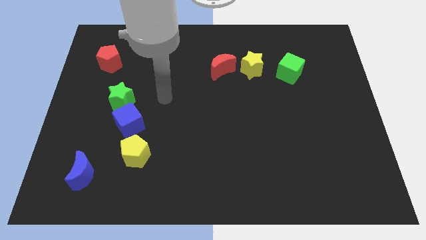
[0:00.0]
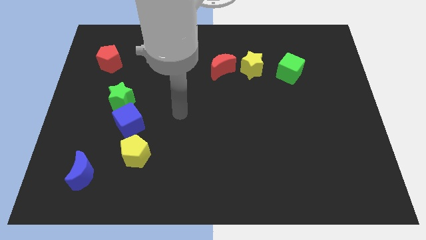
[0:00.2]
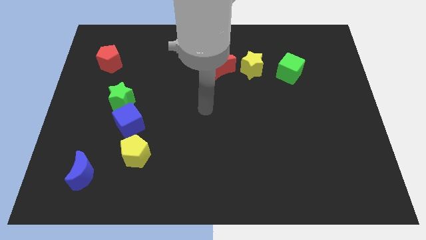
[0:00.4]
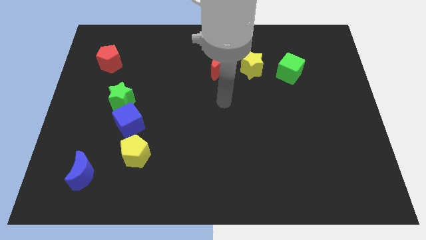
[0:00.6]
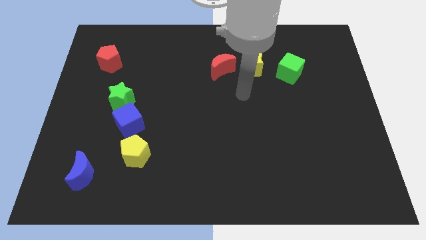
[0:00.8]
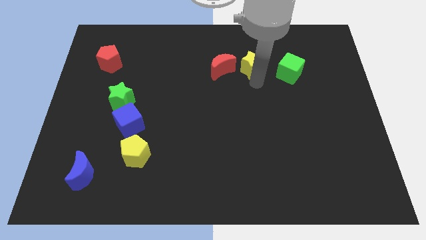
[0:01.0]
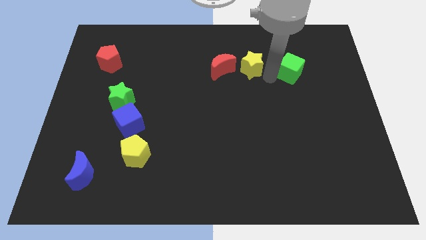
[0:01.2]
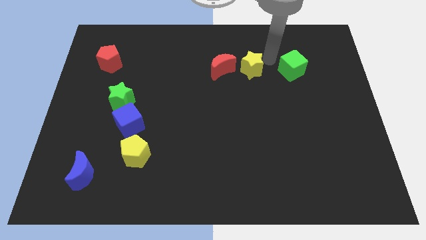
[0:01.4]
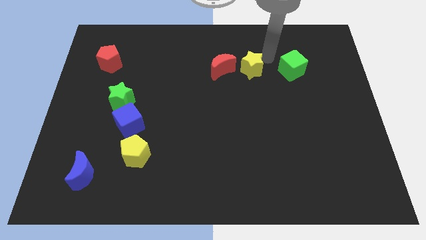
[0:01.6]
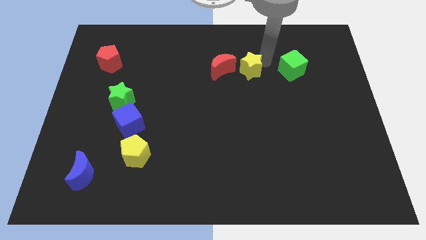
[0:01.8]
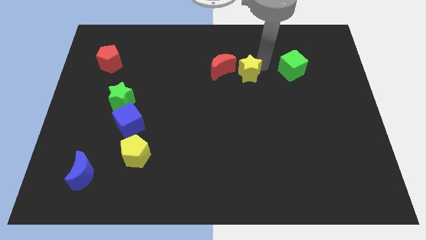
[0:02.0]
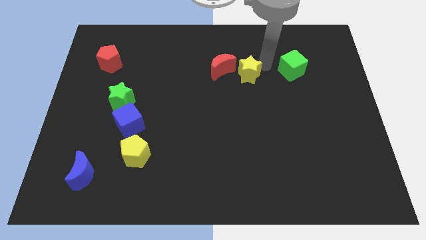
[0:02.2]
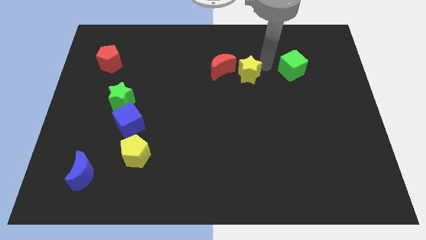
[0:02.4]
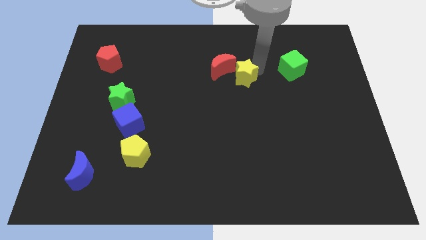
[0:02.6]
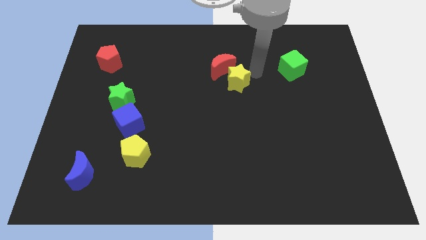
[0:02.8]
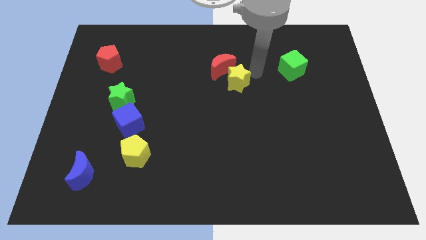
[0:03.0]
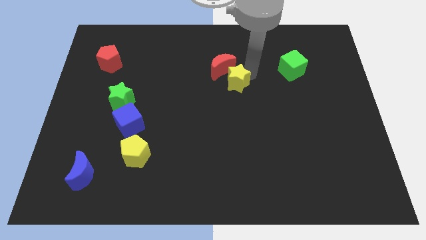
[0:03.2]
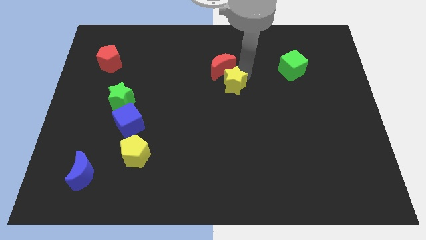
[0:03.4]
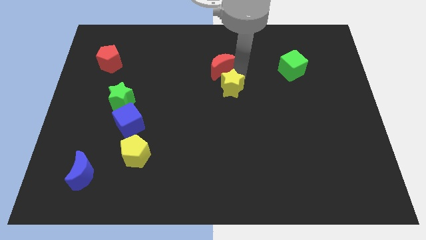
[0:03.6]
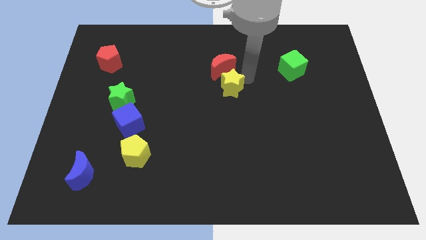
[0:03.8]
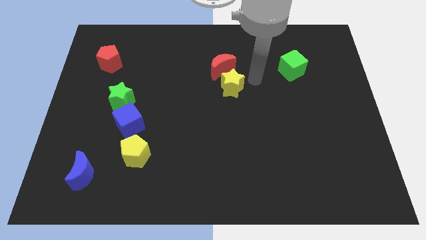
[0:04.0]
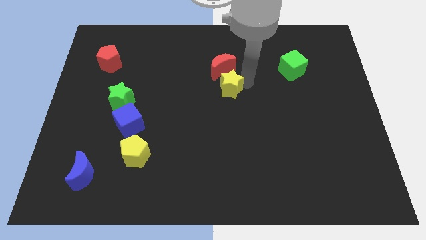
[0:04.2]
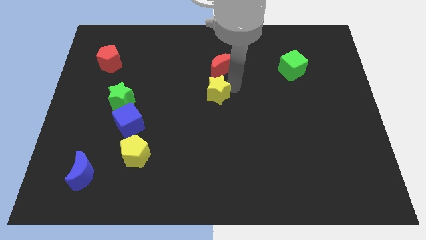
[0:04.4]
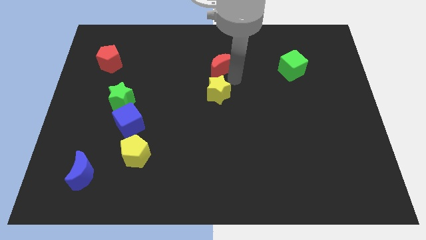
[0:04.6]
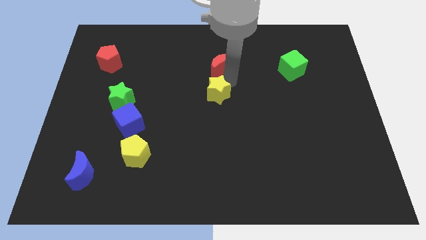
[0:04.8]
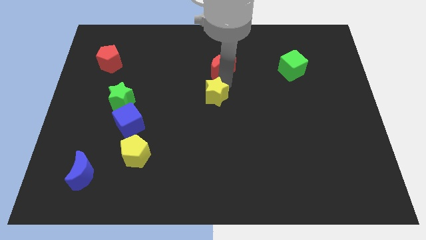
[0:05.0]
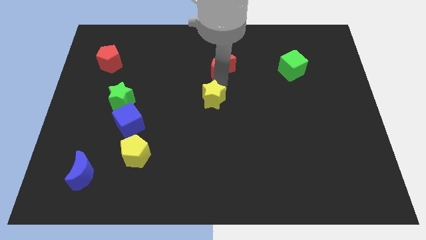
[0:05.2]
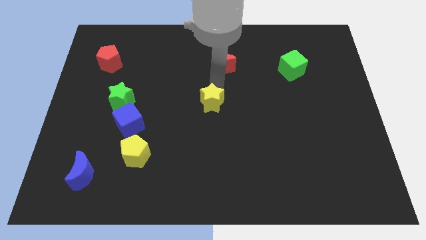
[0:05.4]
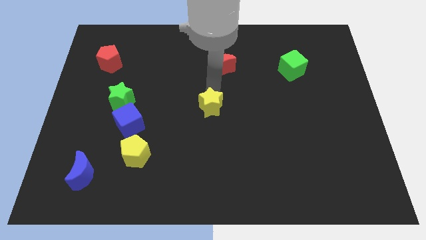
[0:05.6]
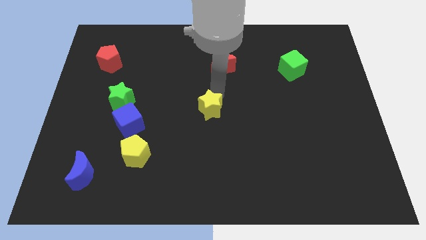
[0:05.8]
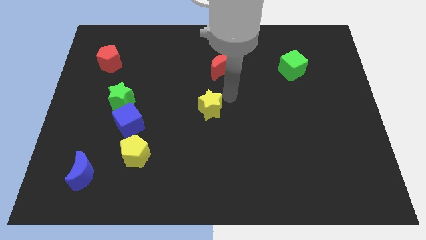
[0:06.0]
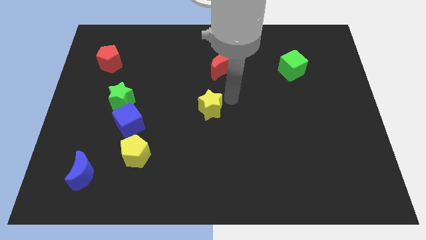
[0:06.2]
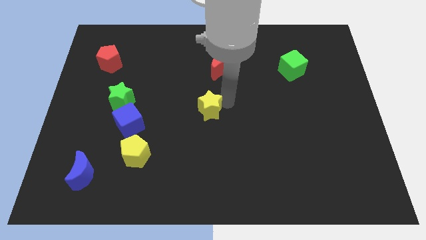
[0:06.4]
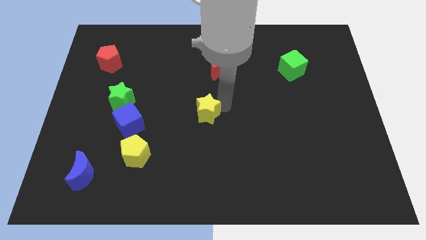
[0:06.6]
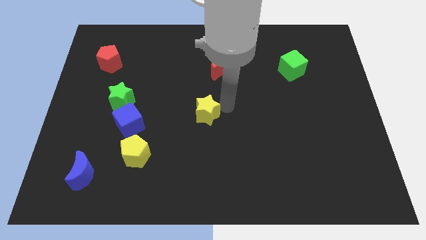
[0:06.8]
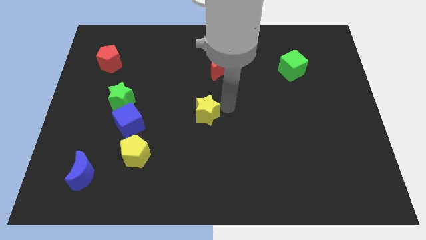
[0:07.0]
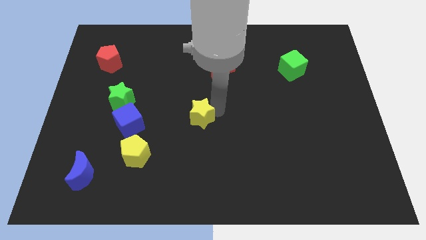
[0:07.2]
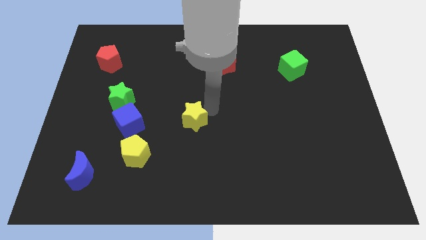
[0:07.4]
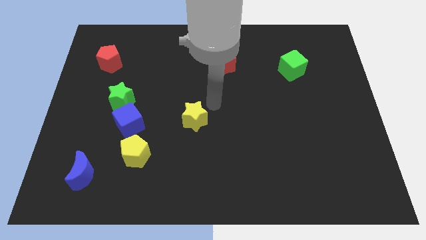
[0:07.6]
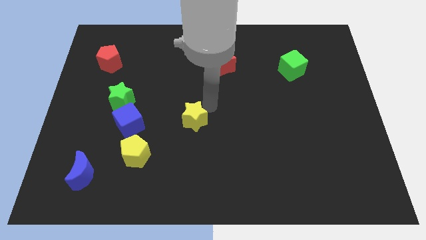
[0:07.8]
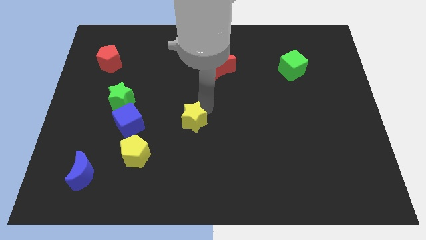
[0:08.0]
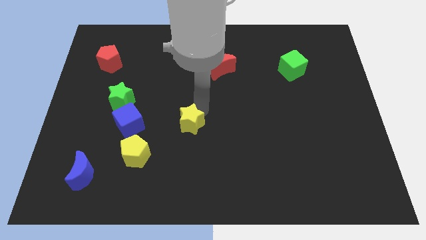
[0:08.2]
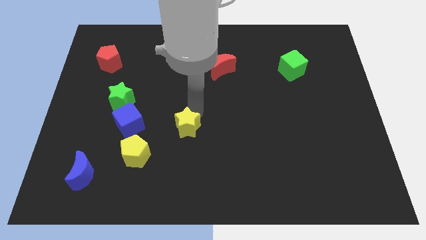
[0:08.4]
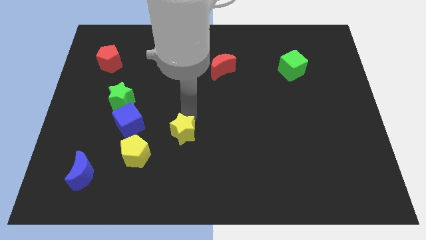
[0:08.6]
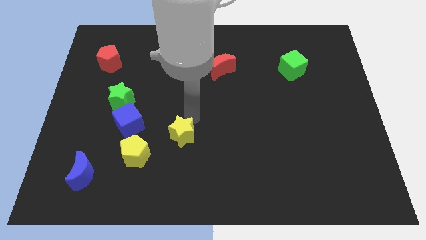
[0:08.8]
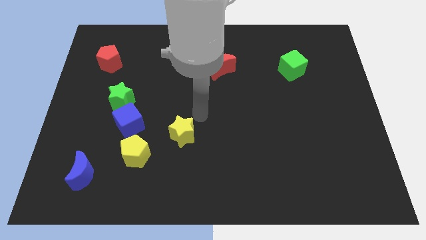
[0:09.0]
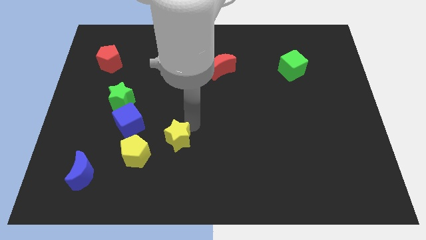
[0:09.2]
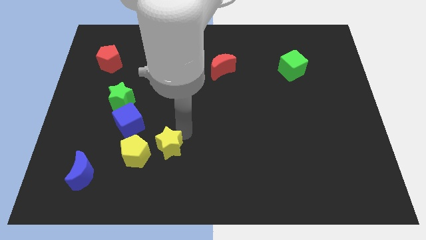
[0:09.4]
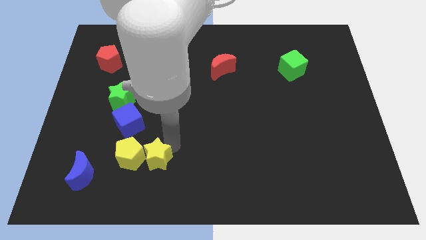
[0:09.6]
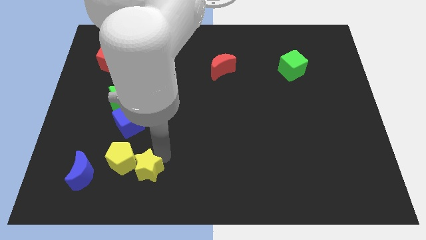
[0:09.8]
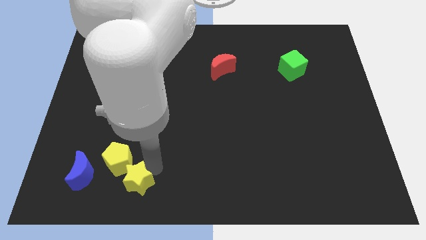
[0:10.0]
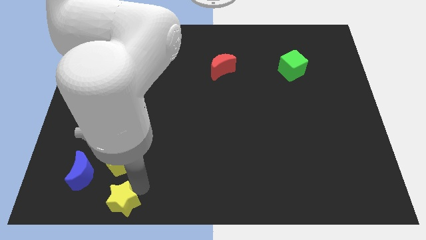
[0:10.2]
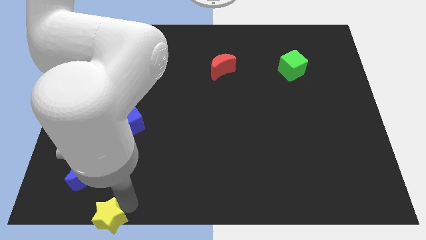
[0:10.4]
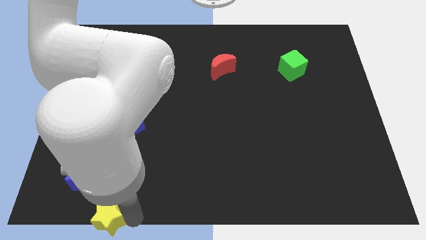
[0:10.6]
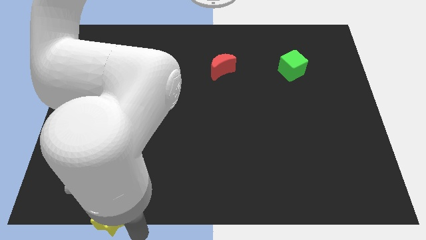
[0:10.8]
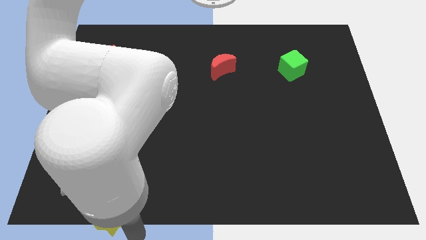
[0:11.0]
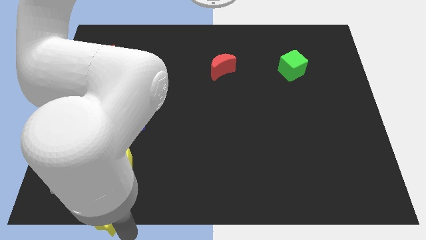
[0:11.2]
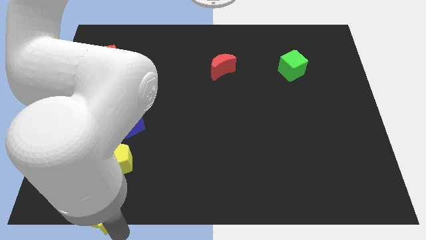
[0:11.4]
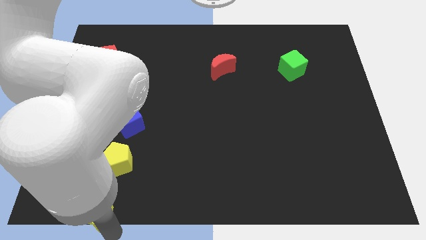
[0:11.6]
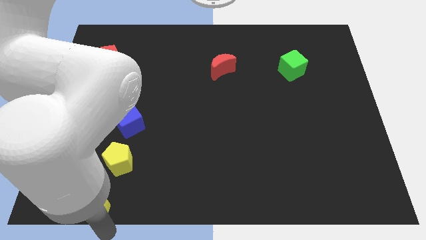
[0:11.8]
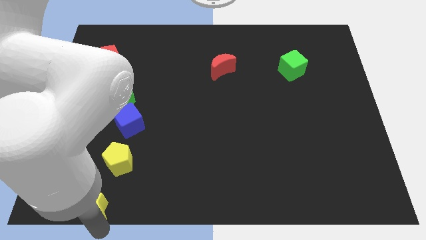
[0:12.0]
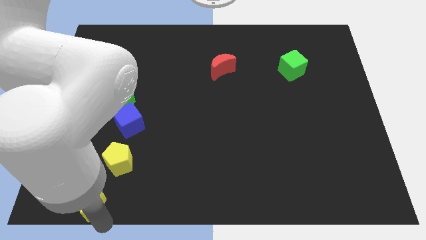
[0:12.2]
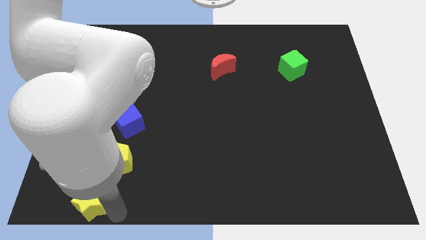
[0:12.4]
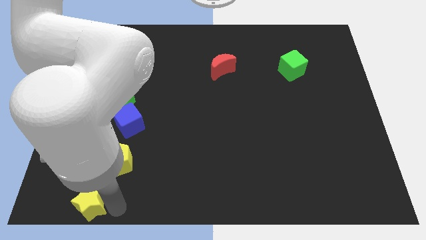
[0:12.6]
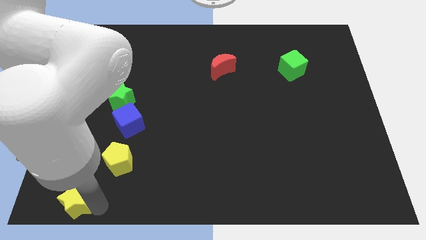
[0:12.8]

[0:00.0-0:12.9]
move the yellow star to the bottom left corner

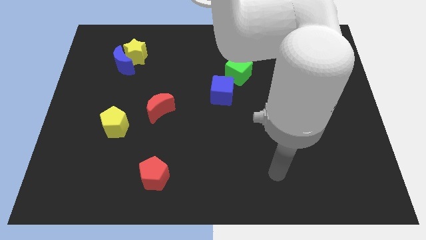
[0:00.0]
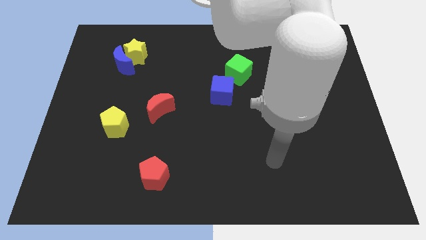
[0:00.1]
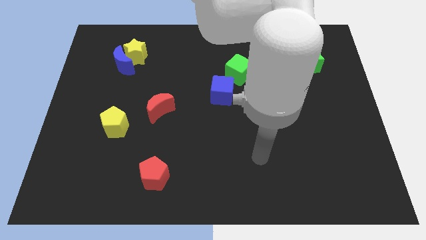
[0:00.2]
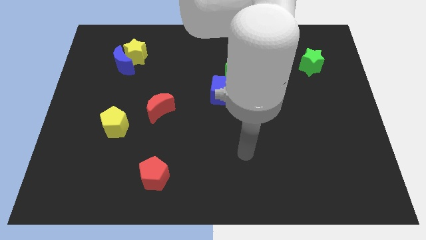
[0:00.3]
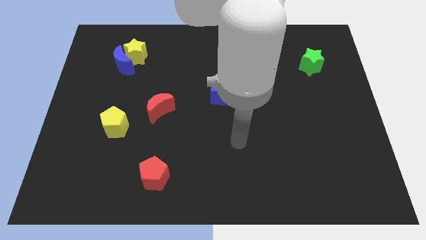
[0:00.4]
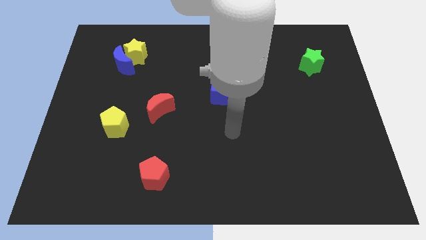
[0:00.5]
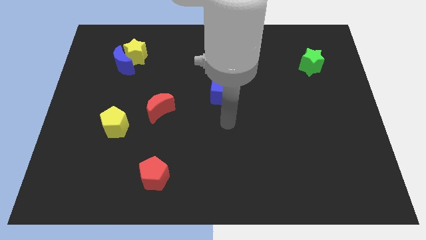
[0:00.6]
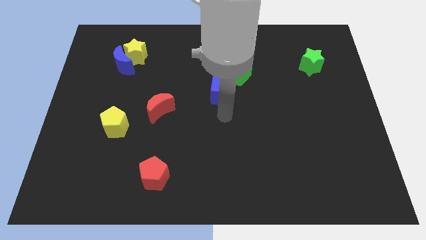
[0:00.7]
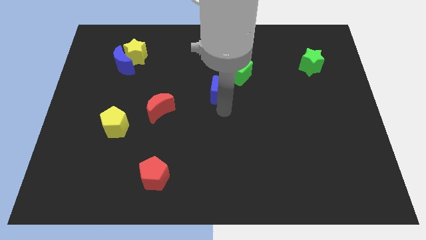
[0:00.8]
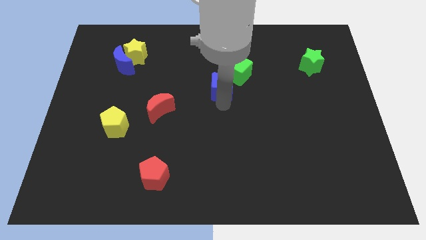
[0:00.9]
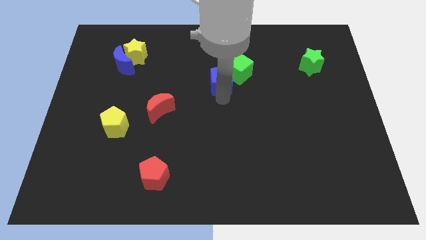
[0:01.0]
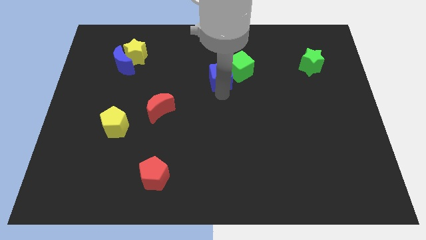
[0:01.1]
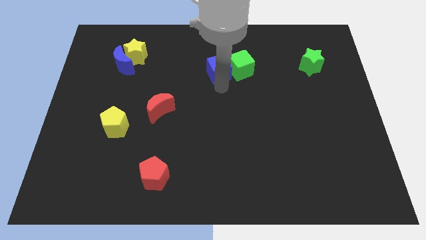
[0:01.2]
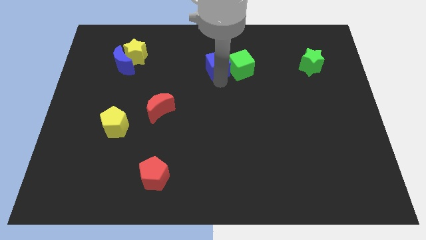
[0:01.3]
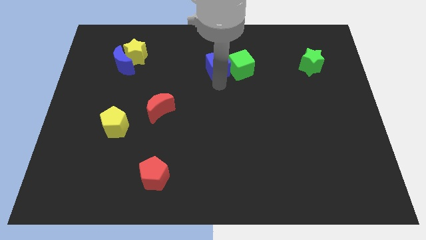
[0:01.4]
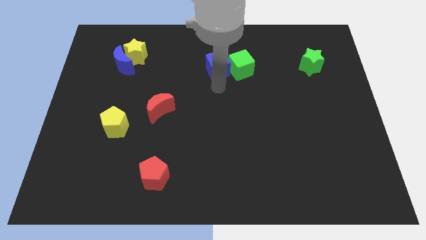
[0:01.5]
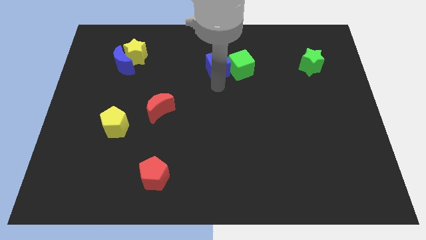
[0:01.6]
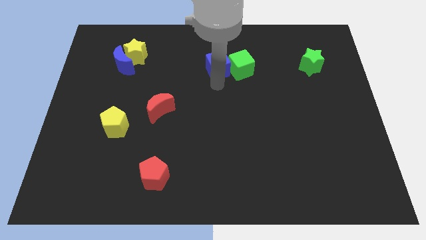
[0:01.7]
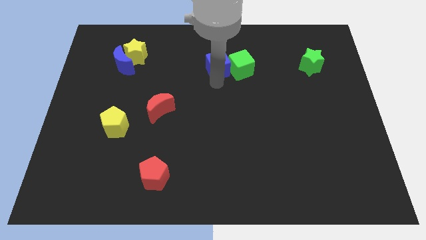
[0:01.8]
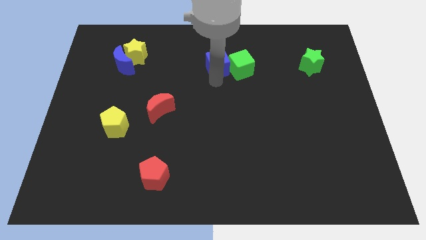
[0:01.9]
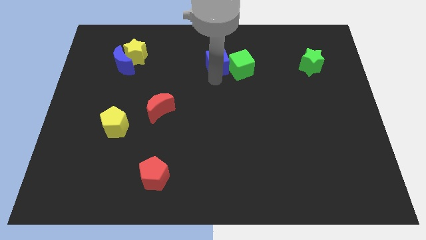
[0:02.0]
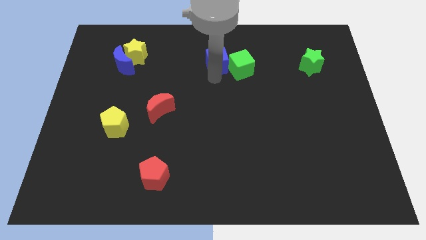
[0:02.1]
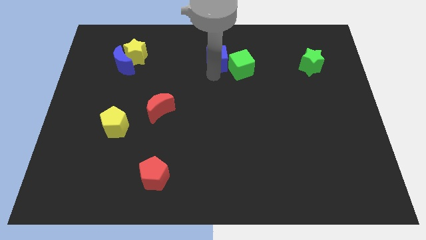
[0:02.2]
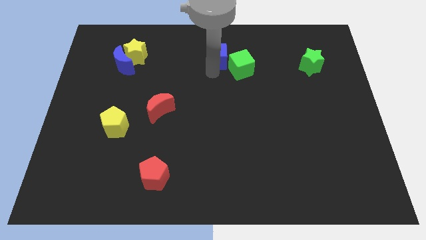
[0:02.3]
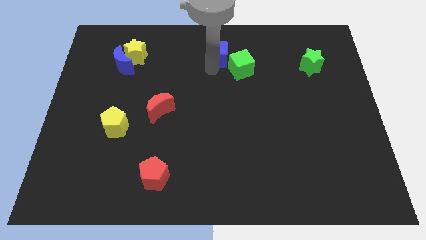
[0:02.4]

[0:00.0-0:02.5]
move the blue cube to the top
